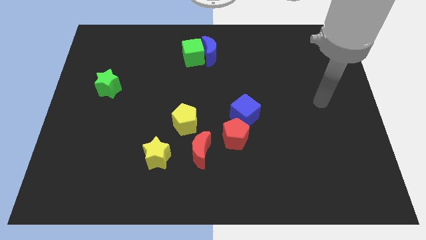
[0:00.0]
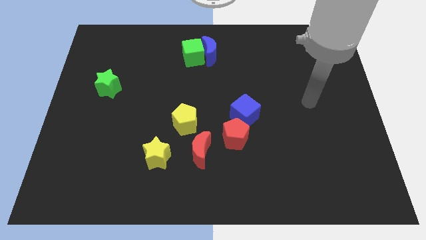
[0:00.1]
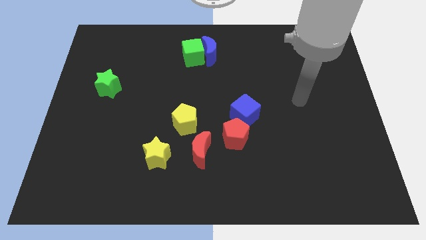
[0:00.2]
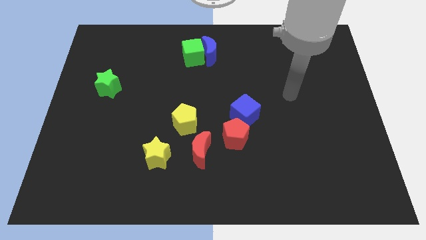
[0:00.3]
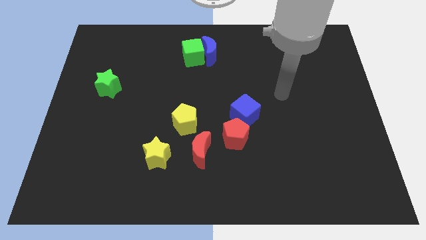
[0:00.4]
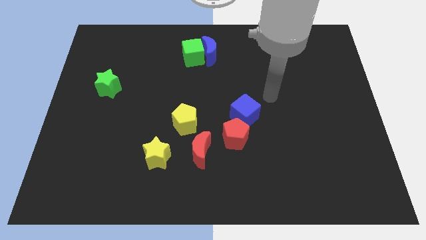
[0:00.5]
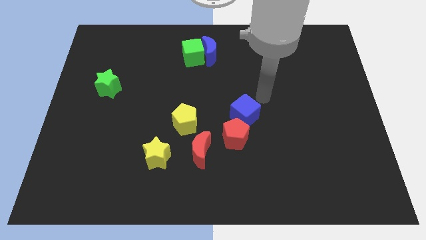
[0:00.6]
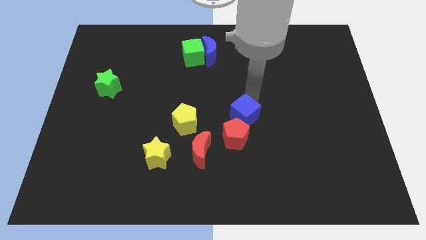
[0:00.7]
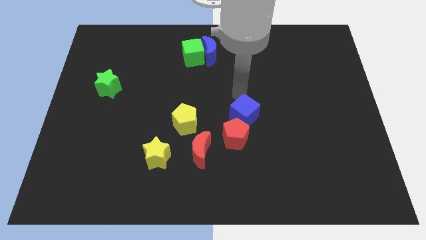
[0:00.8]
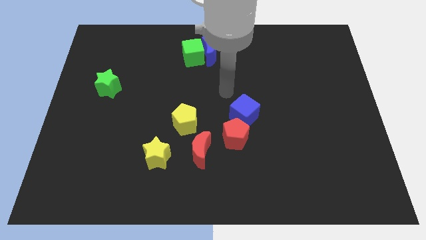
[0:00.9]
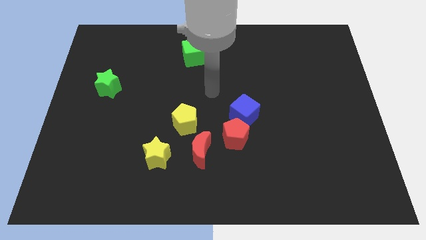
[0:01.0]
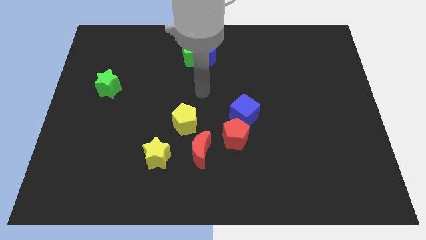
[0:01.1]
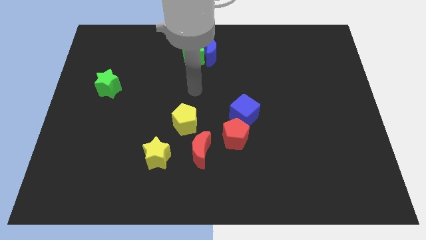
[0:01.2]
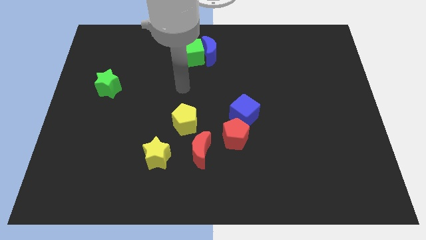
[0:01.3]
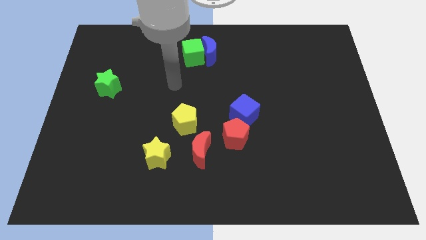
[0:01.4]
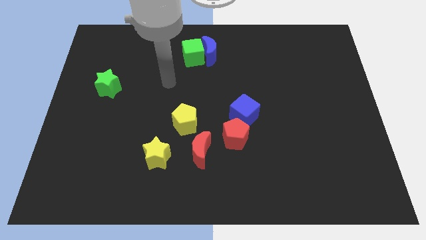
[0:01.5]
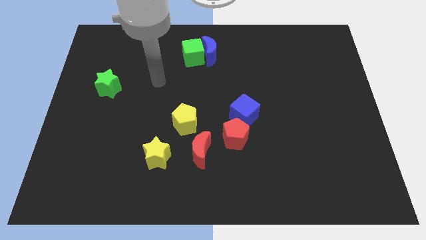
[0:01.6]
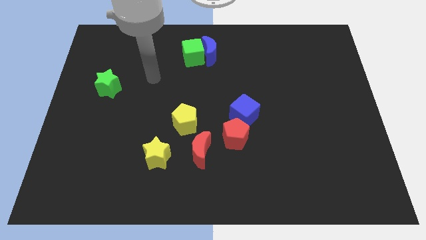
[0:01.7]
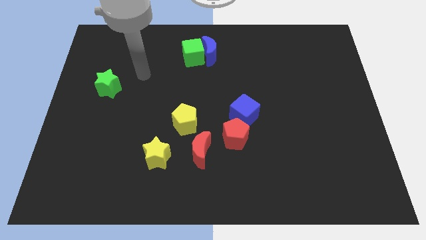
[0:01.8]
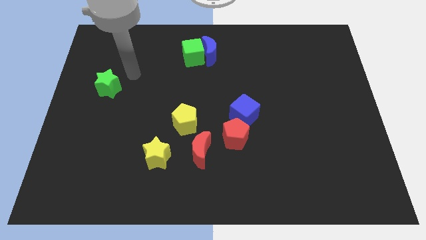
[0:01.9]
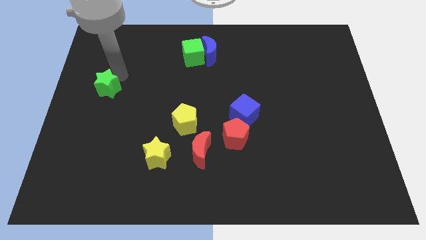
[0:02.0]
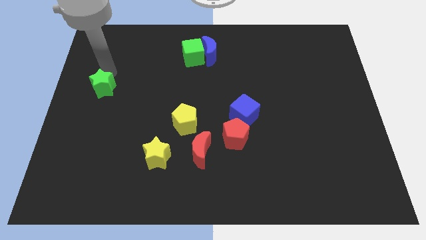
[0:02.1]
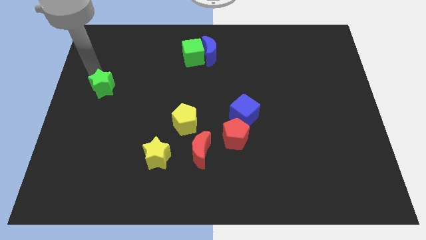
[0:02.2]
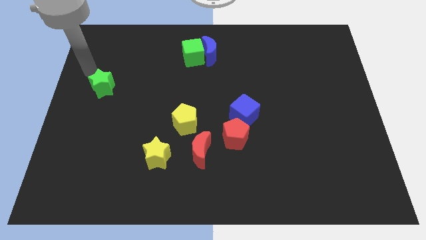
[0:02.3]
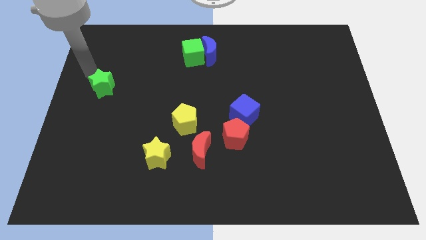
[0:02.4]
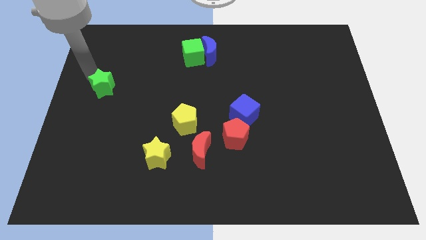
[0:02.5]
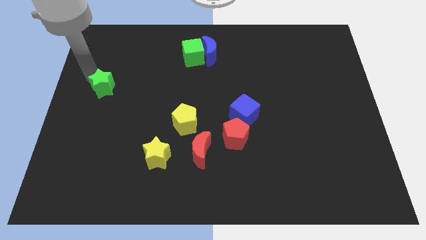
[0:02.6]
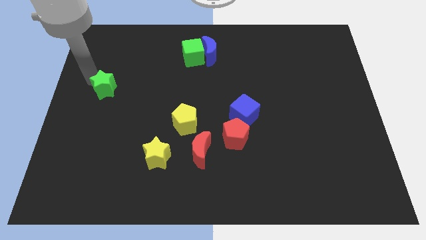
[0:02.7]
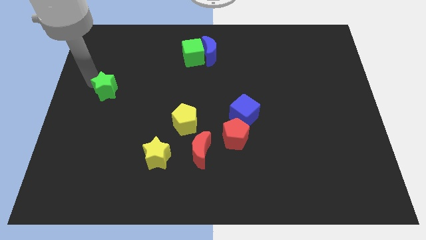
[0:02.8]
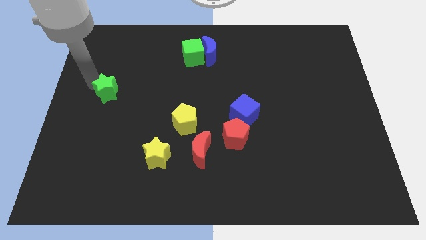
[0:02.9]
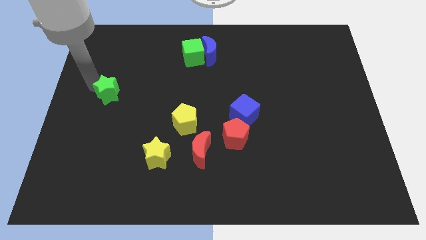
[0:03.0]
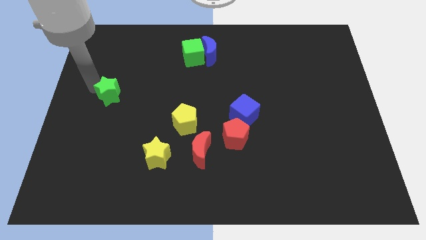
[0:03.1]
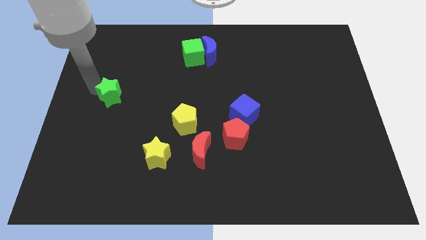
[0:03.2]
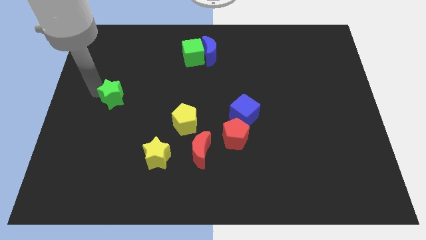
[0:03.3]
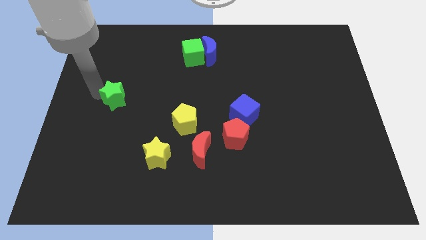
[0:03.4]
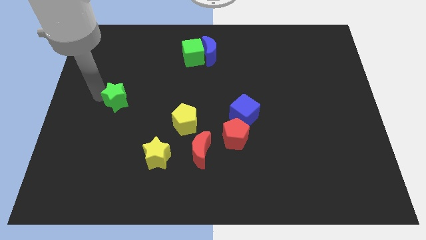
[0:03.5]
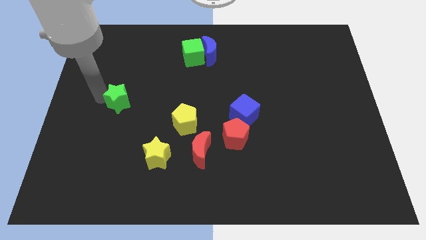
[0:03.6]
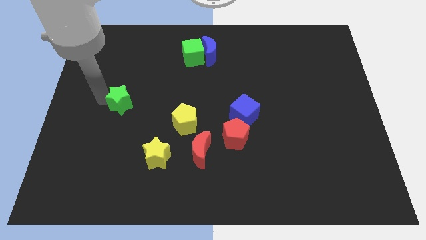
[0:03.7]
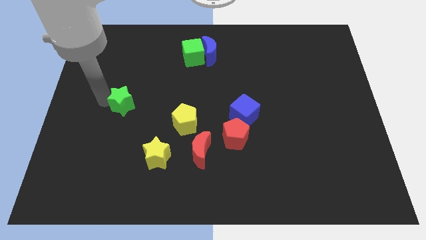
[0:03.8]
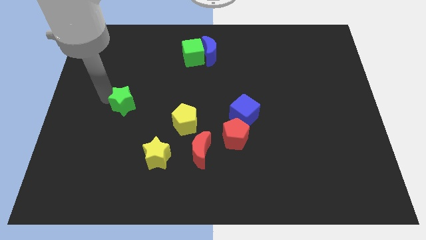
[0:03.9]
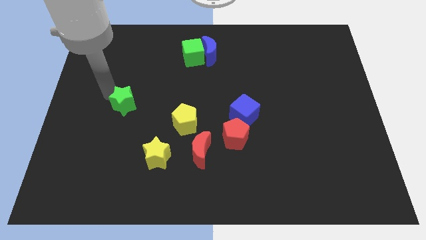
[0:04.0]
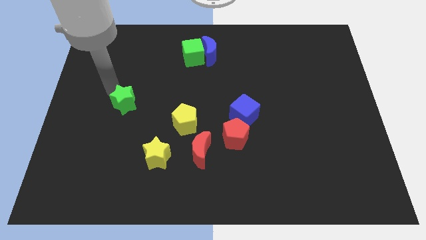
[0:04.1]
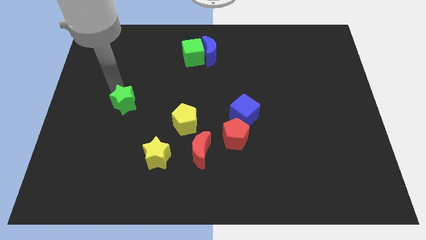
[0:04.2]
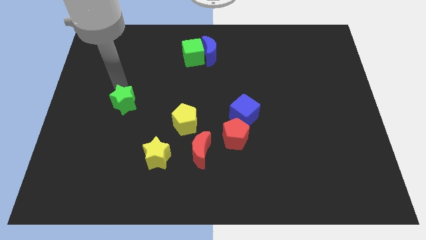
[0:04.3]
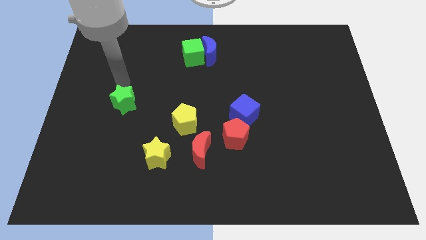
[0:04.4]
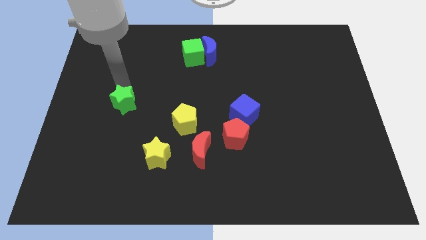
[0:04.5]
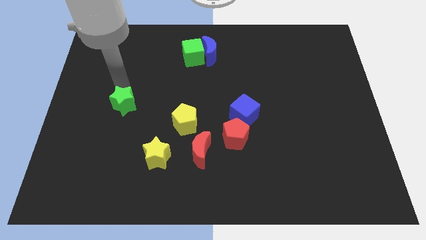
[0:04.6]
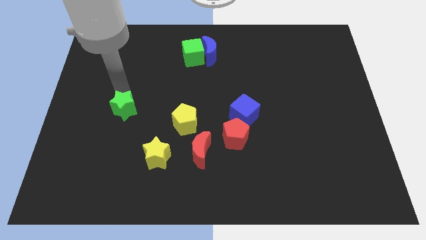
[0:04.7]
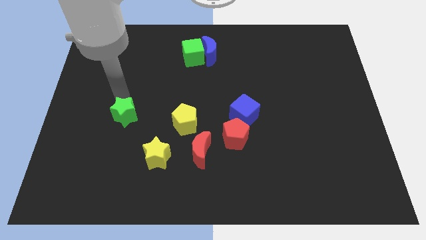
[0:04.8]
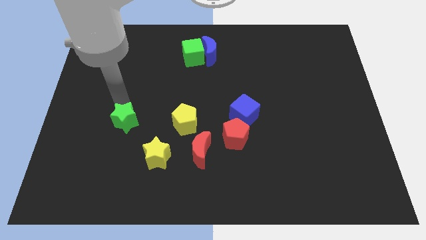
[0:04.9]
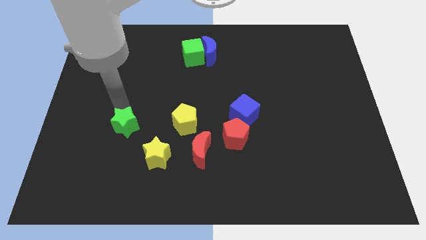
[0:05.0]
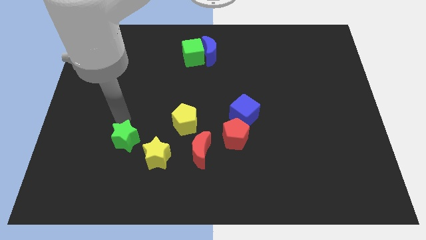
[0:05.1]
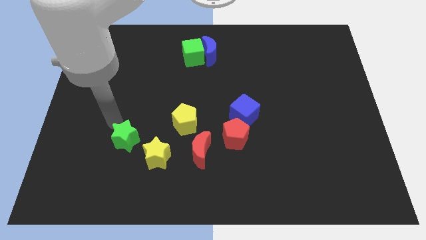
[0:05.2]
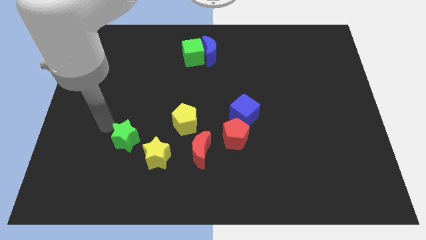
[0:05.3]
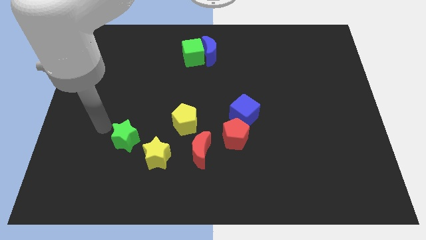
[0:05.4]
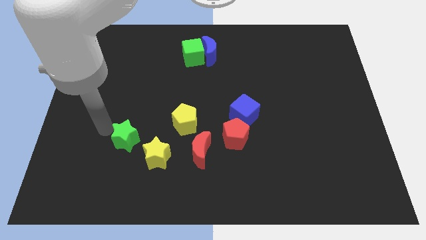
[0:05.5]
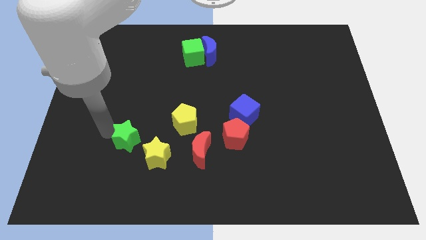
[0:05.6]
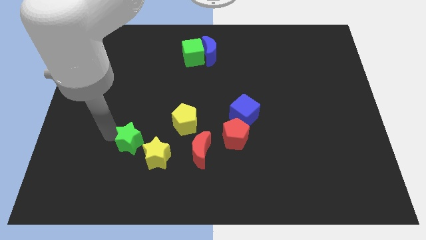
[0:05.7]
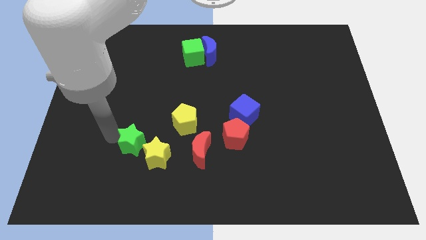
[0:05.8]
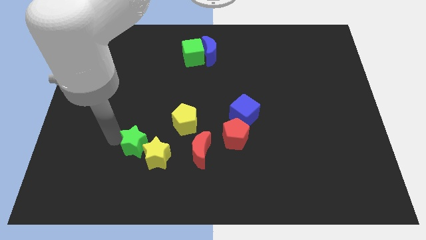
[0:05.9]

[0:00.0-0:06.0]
slide the green star next to the yellow star

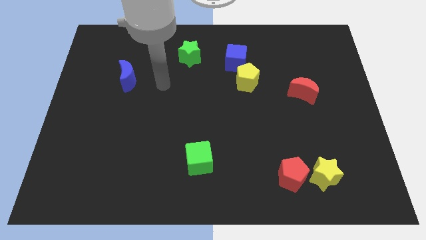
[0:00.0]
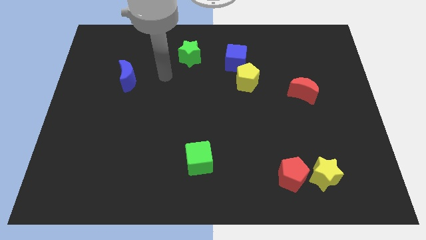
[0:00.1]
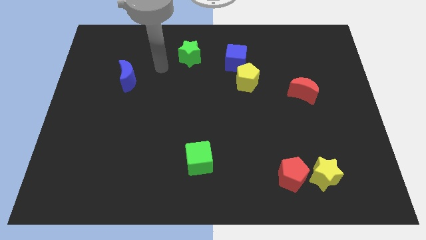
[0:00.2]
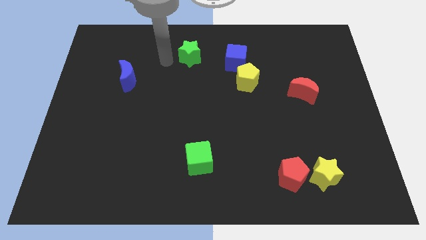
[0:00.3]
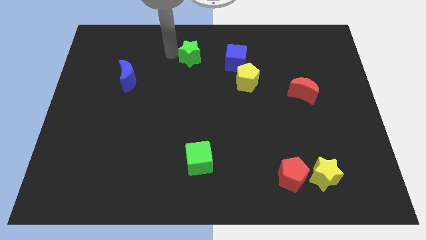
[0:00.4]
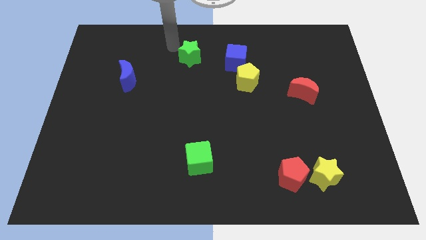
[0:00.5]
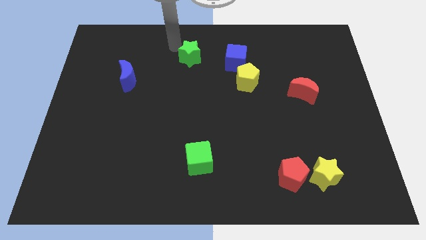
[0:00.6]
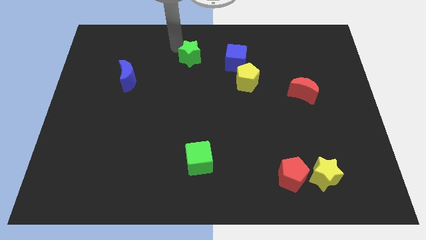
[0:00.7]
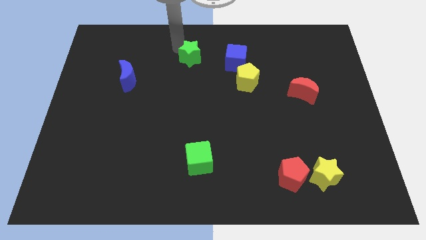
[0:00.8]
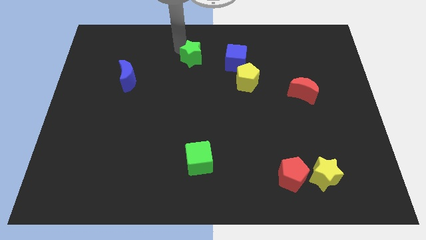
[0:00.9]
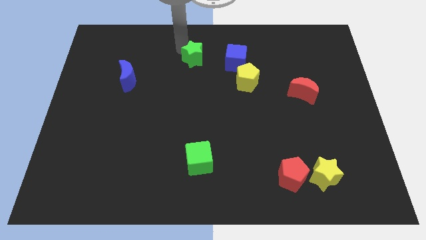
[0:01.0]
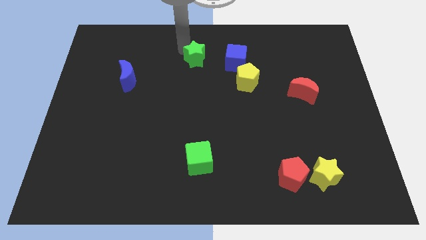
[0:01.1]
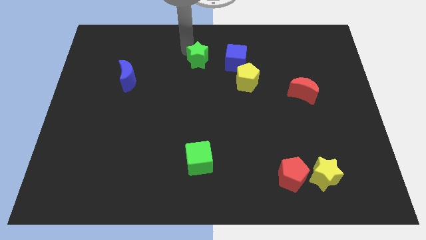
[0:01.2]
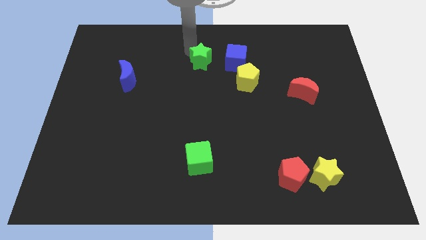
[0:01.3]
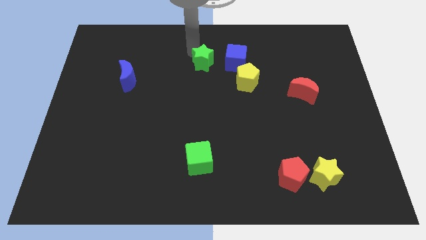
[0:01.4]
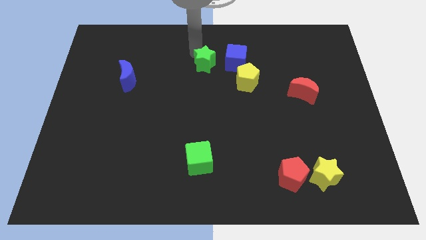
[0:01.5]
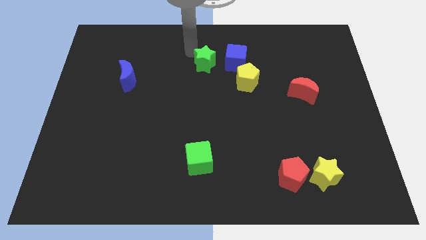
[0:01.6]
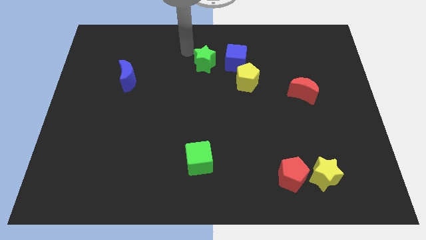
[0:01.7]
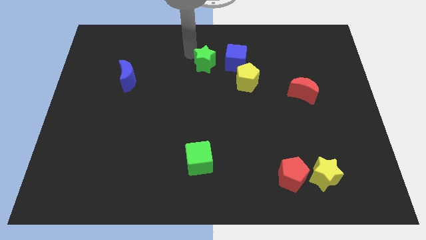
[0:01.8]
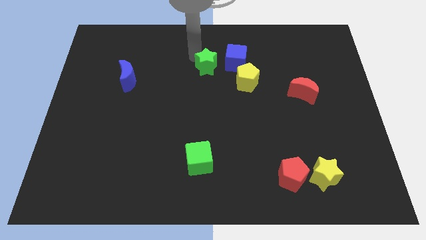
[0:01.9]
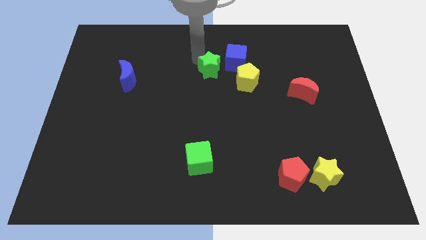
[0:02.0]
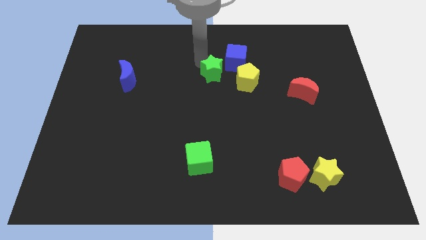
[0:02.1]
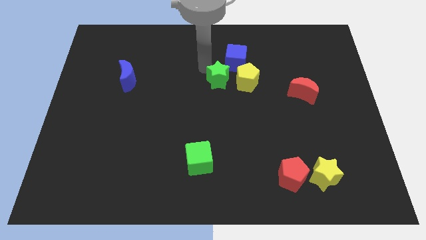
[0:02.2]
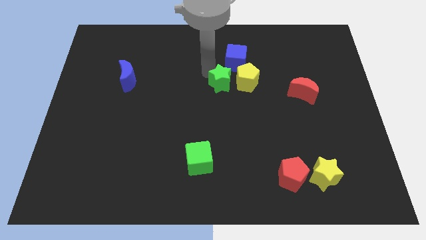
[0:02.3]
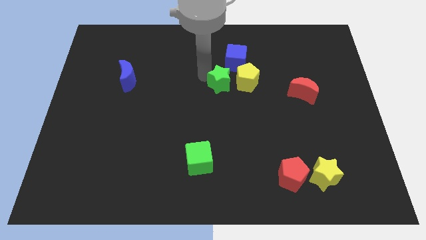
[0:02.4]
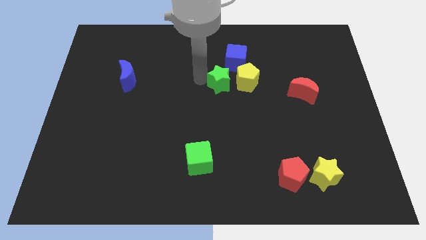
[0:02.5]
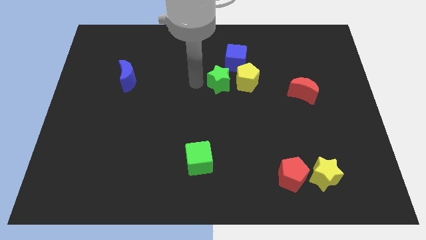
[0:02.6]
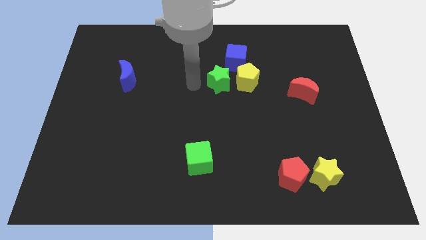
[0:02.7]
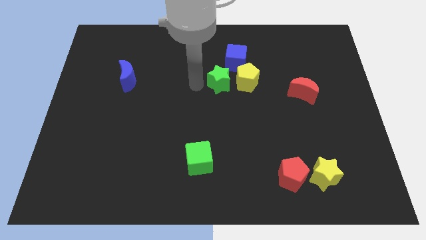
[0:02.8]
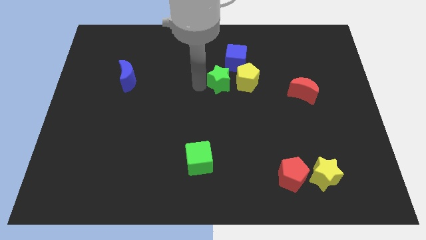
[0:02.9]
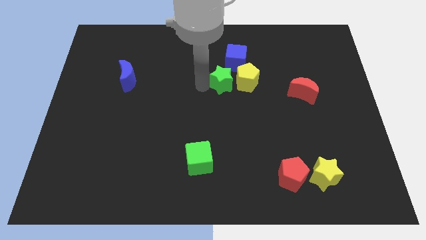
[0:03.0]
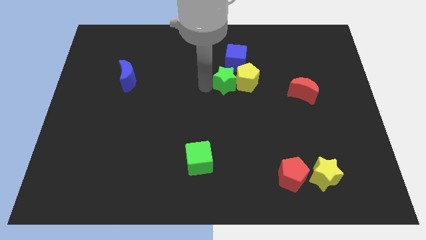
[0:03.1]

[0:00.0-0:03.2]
put the green star towards the yellow pentagon
